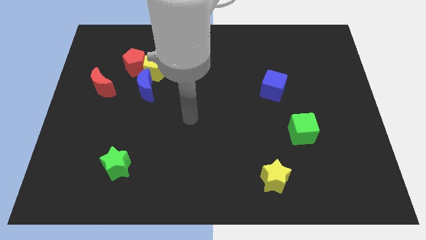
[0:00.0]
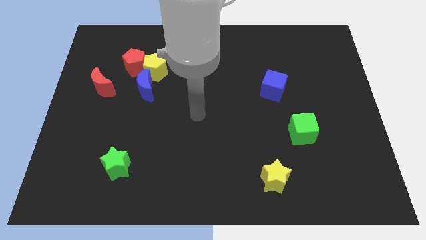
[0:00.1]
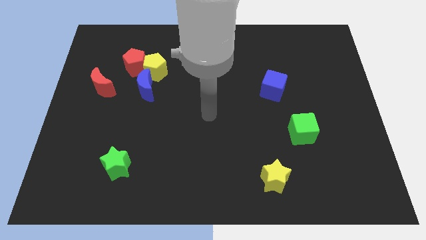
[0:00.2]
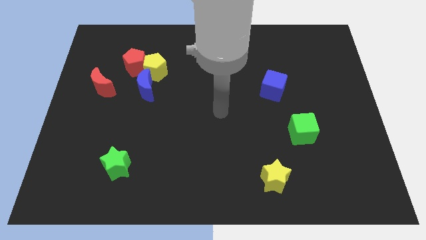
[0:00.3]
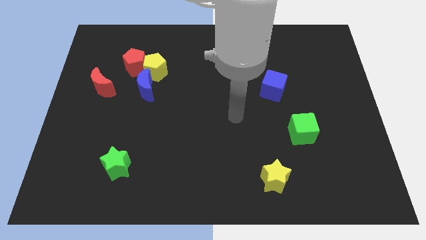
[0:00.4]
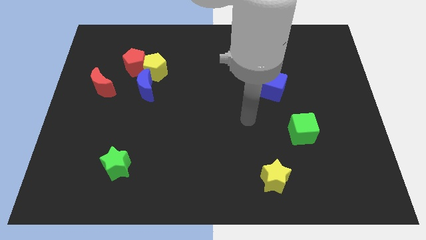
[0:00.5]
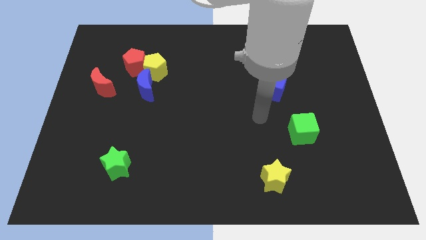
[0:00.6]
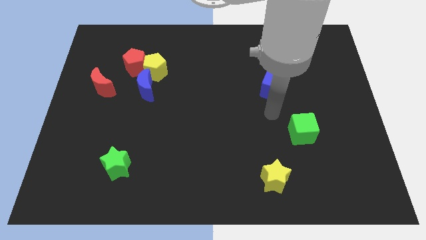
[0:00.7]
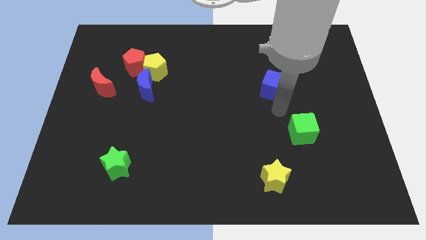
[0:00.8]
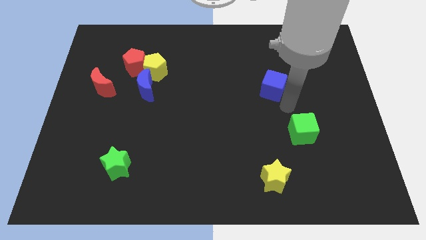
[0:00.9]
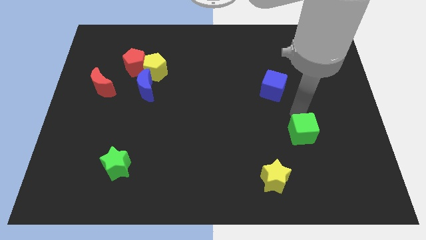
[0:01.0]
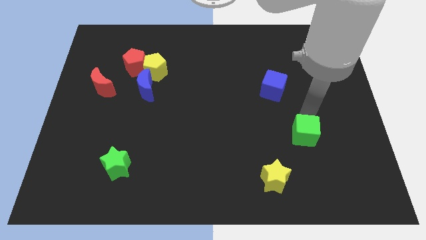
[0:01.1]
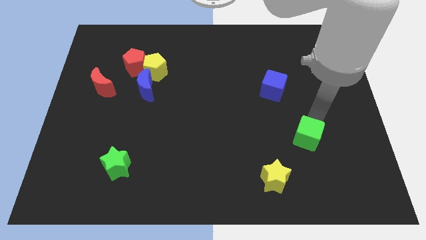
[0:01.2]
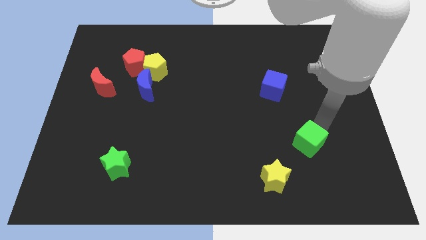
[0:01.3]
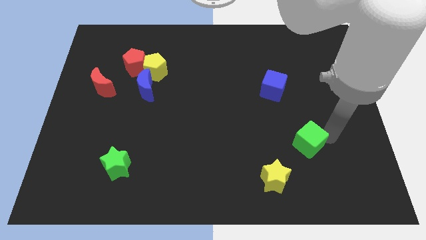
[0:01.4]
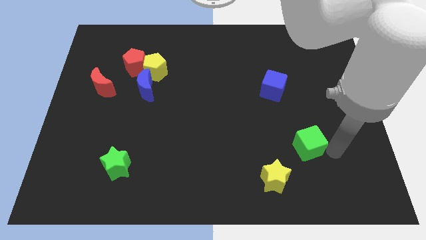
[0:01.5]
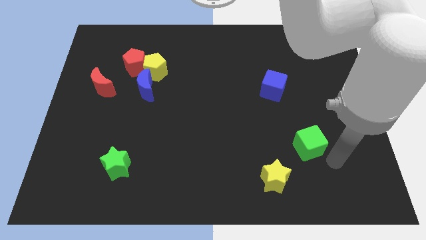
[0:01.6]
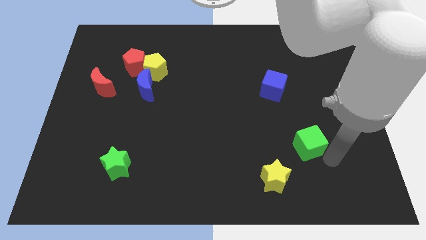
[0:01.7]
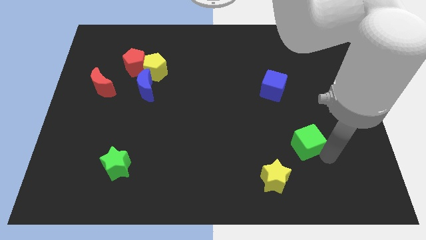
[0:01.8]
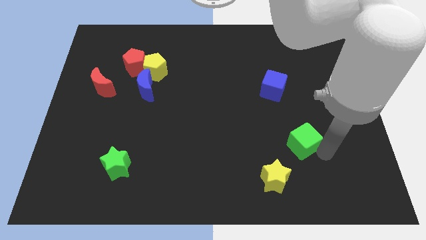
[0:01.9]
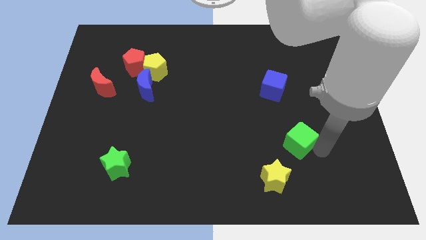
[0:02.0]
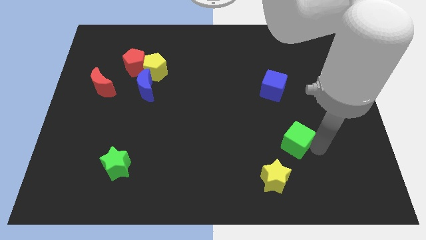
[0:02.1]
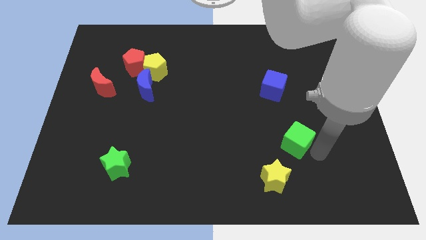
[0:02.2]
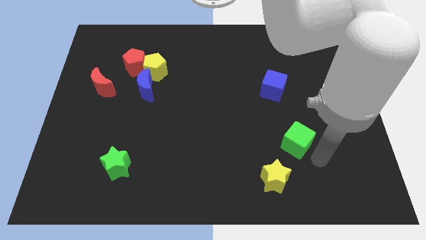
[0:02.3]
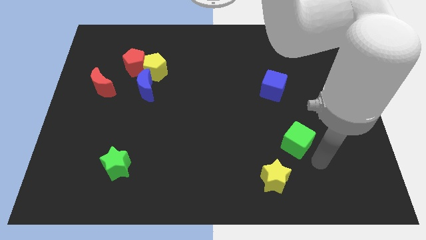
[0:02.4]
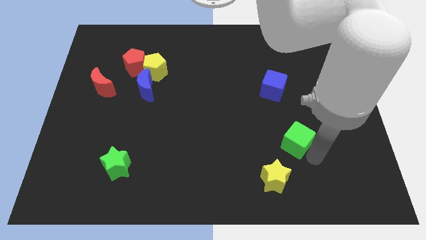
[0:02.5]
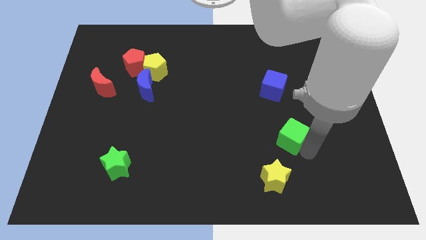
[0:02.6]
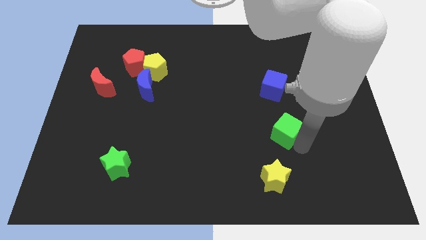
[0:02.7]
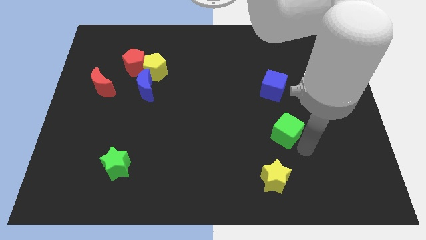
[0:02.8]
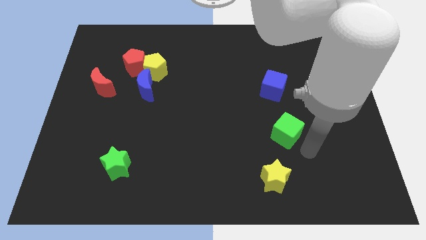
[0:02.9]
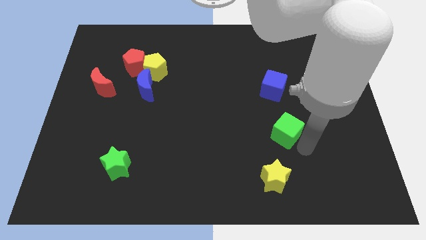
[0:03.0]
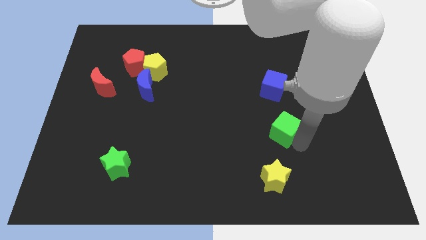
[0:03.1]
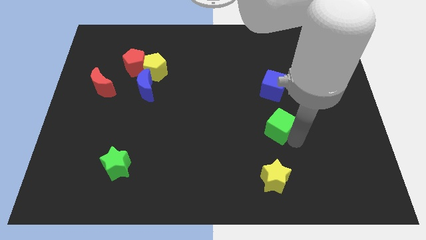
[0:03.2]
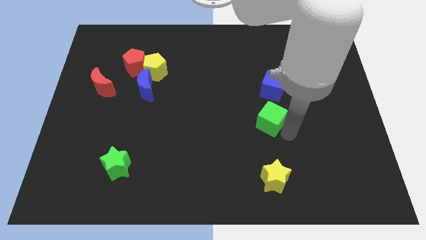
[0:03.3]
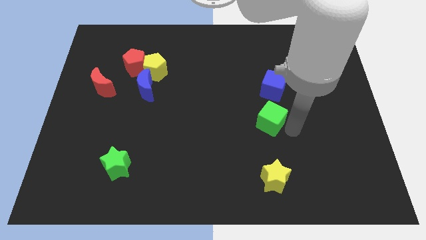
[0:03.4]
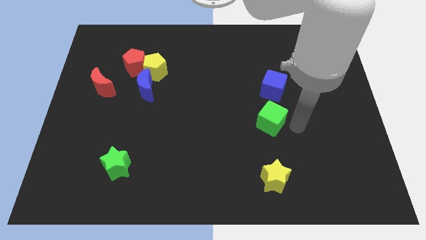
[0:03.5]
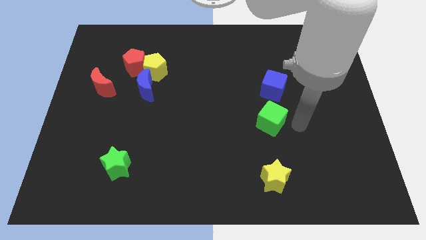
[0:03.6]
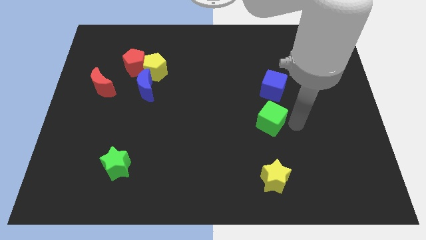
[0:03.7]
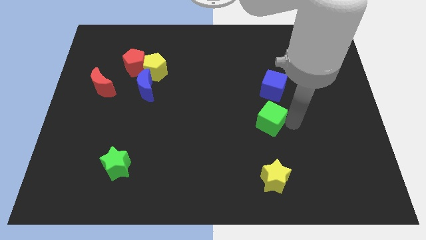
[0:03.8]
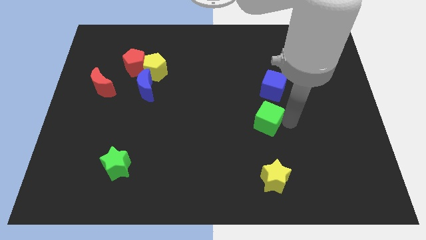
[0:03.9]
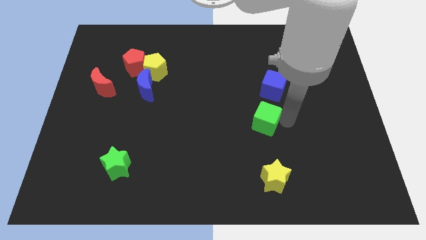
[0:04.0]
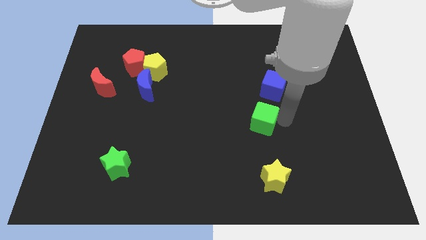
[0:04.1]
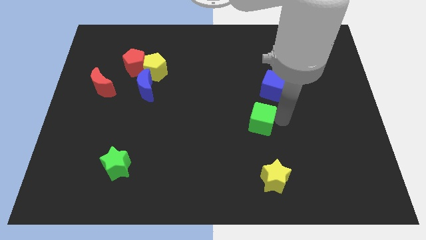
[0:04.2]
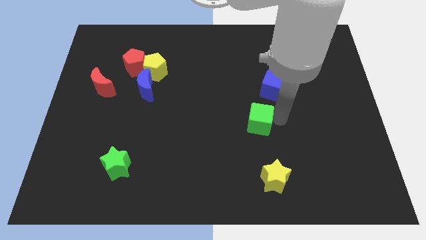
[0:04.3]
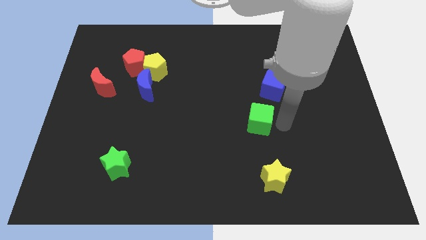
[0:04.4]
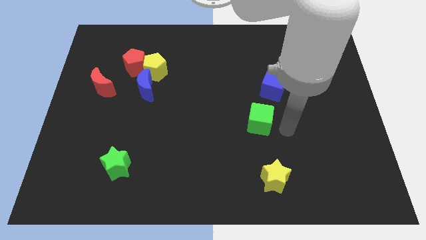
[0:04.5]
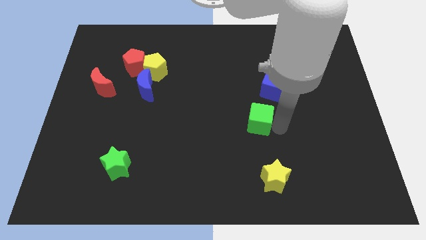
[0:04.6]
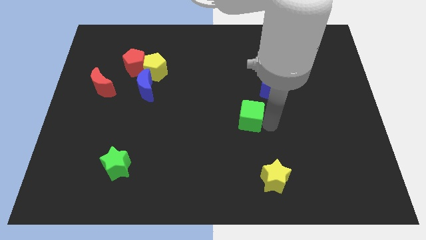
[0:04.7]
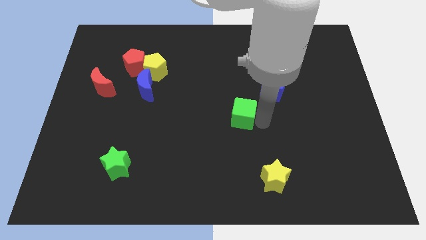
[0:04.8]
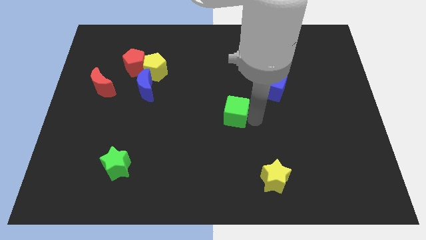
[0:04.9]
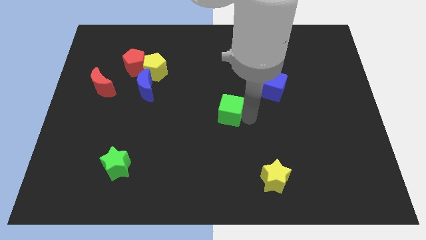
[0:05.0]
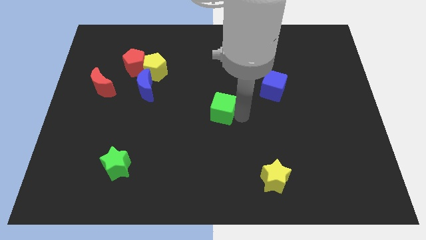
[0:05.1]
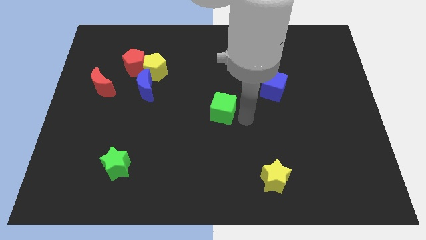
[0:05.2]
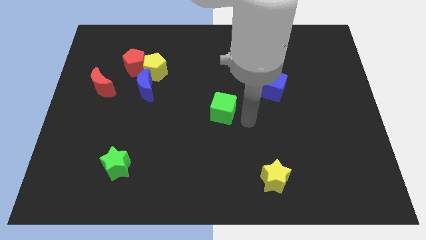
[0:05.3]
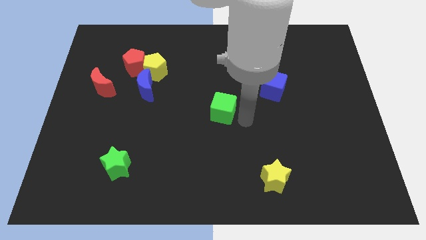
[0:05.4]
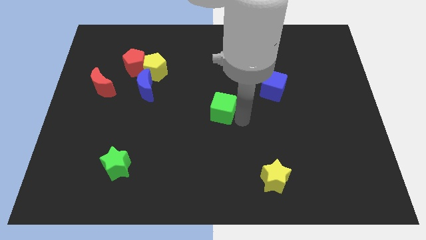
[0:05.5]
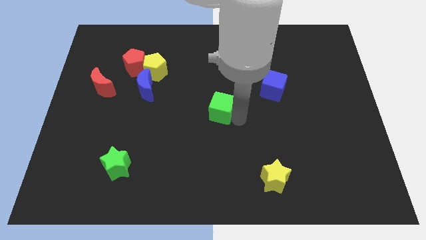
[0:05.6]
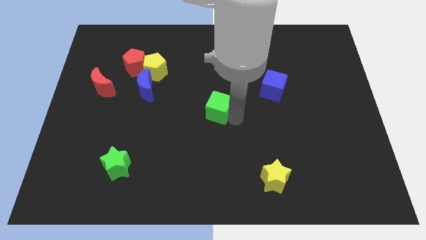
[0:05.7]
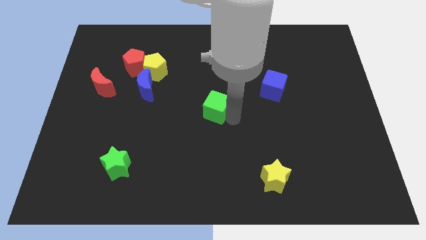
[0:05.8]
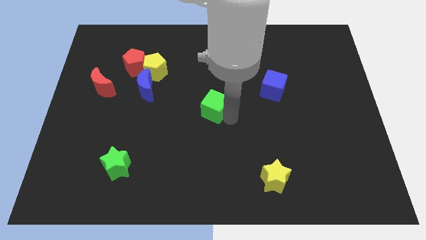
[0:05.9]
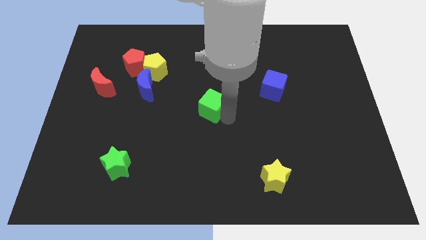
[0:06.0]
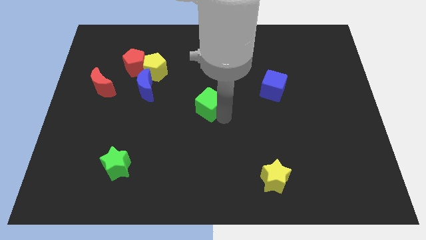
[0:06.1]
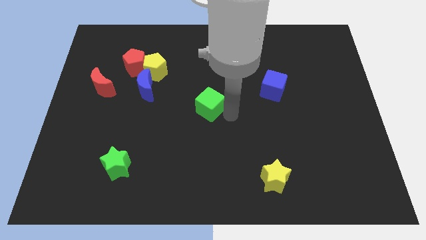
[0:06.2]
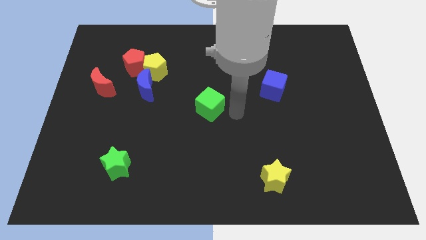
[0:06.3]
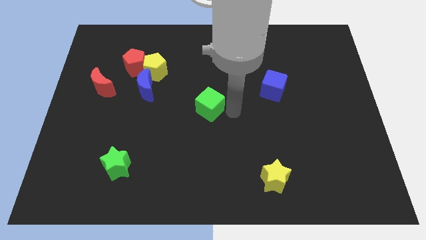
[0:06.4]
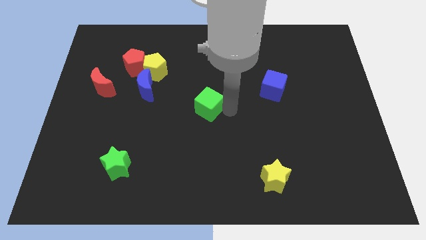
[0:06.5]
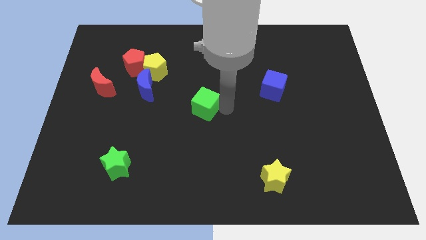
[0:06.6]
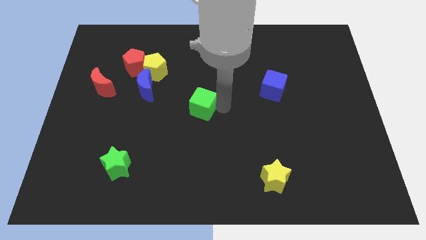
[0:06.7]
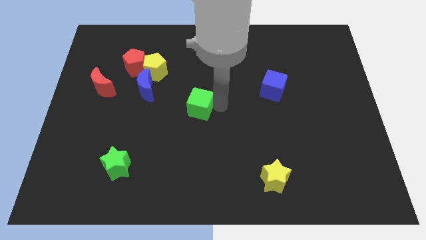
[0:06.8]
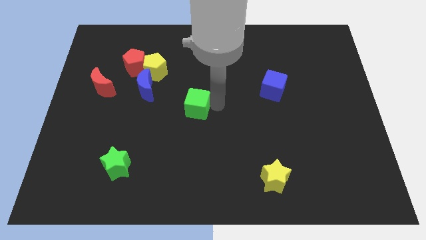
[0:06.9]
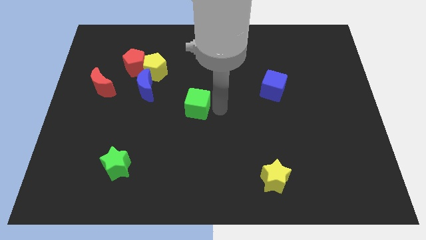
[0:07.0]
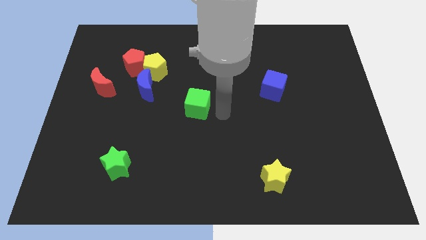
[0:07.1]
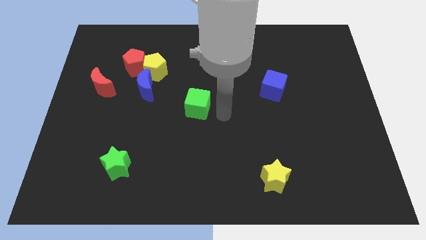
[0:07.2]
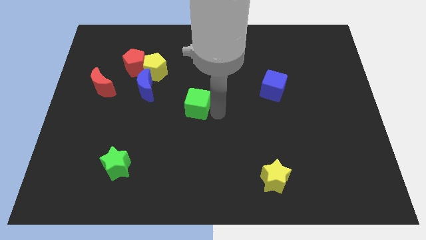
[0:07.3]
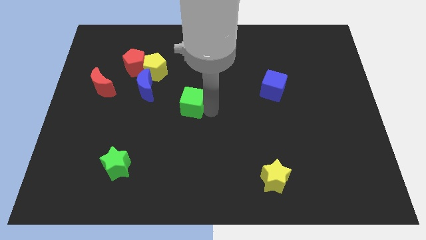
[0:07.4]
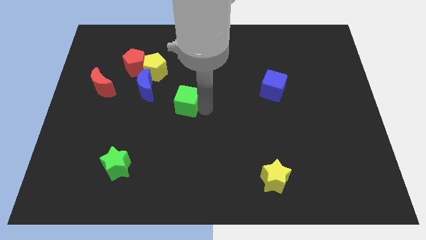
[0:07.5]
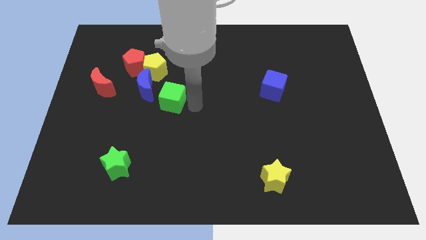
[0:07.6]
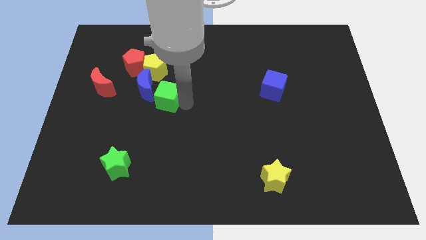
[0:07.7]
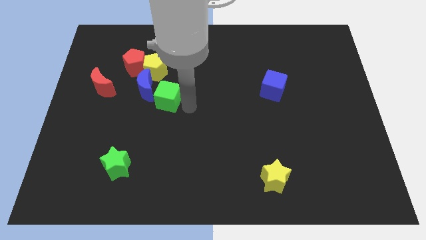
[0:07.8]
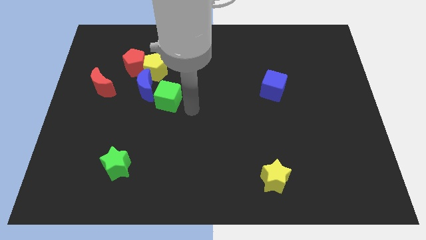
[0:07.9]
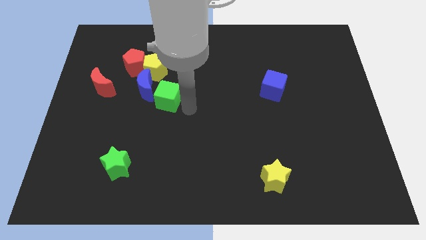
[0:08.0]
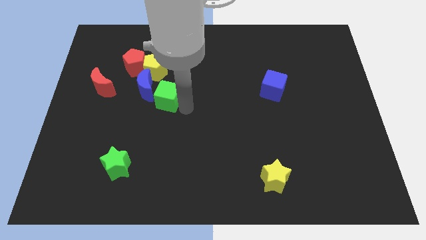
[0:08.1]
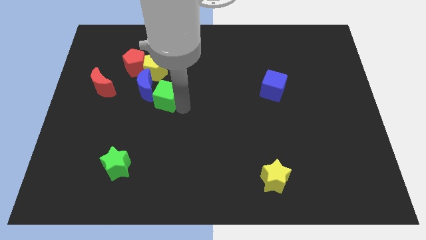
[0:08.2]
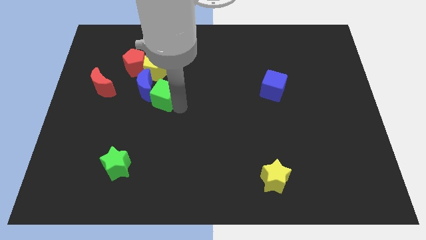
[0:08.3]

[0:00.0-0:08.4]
push the green cube towards the blue moon
